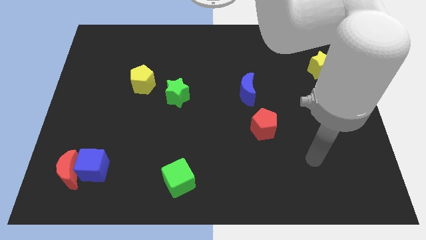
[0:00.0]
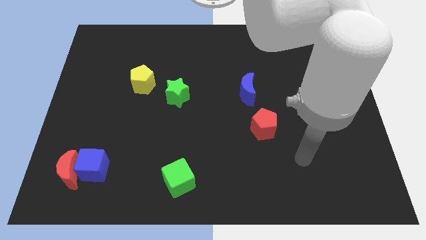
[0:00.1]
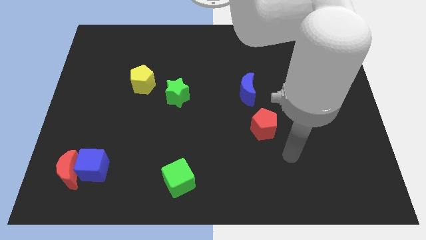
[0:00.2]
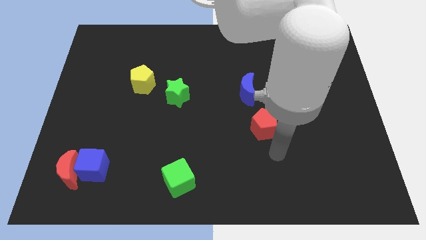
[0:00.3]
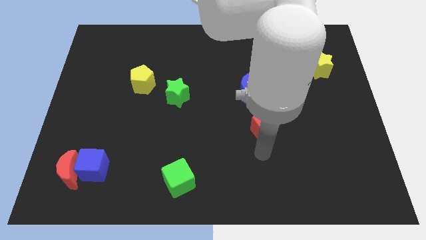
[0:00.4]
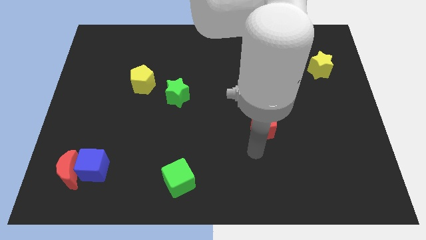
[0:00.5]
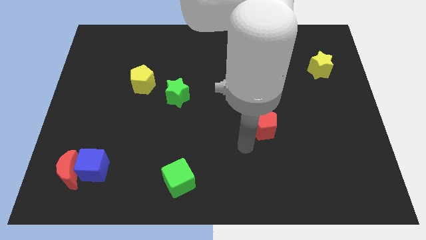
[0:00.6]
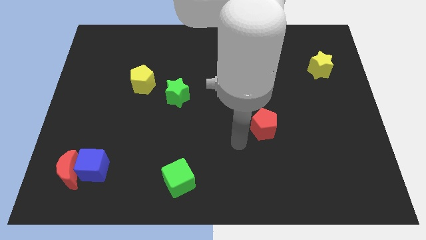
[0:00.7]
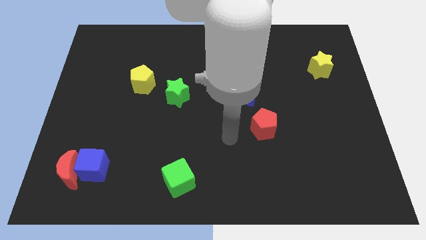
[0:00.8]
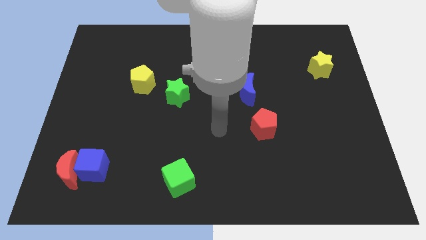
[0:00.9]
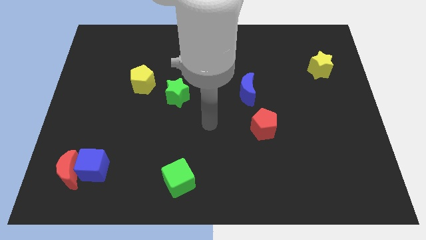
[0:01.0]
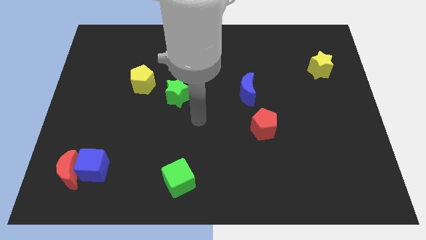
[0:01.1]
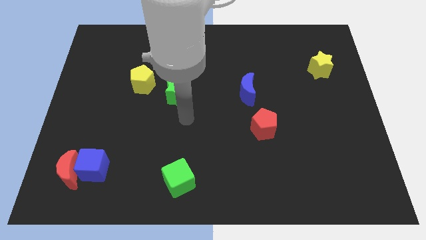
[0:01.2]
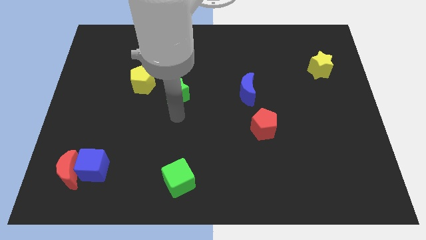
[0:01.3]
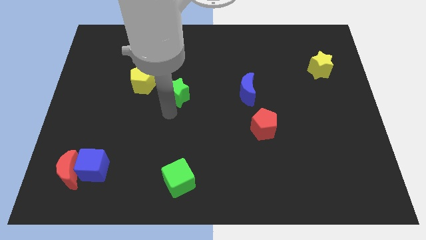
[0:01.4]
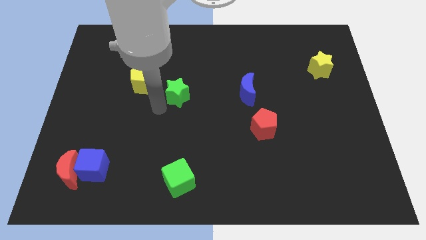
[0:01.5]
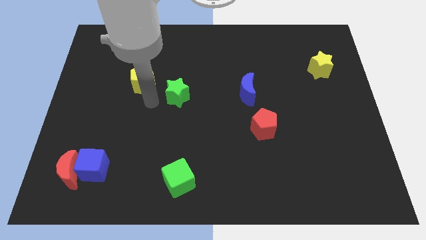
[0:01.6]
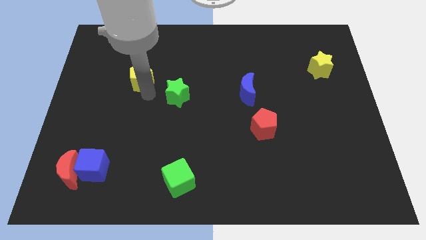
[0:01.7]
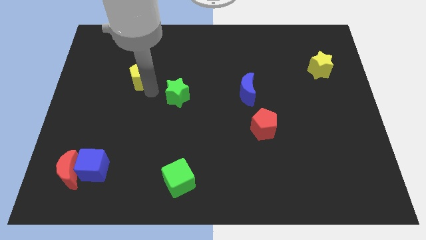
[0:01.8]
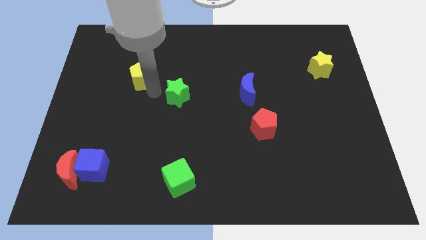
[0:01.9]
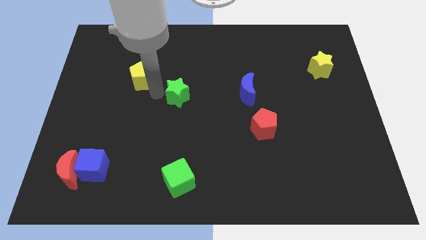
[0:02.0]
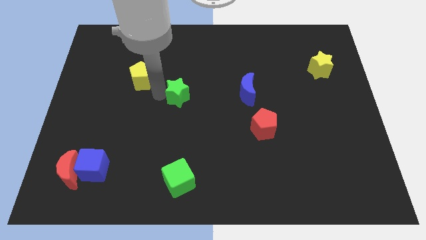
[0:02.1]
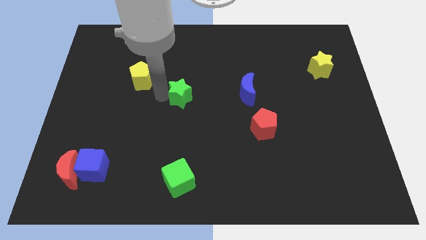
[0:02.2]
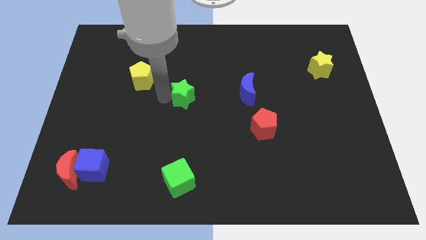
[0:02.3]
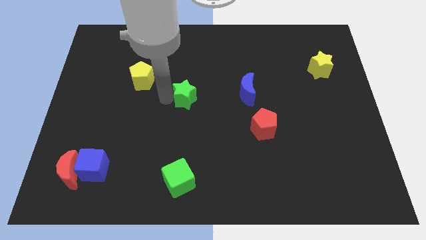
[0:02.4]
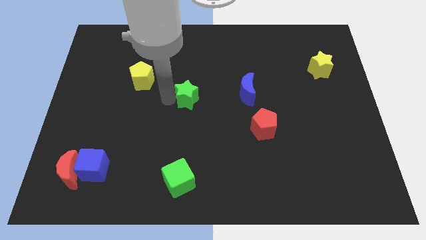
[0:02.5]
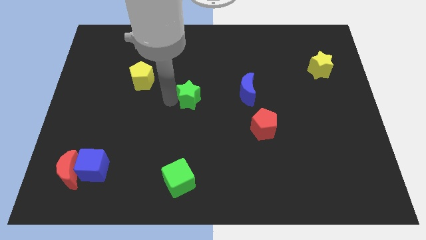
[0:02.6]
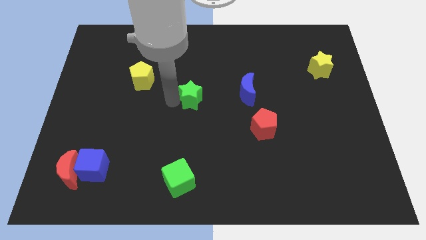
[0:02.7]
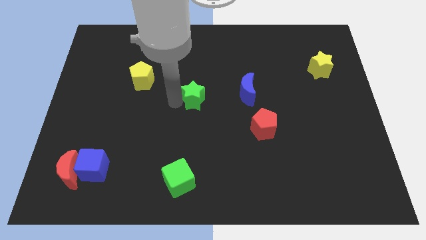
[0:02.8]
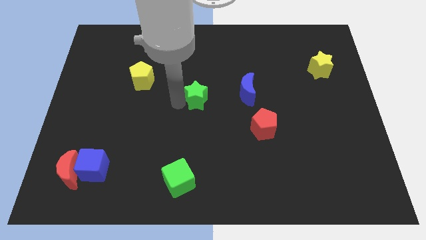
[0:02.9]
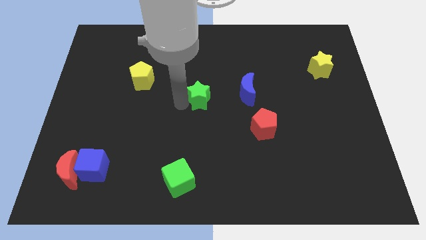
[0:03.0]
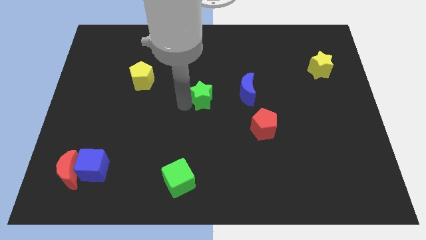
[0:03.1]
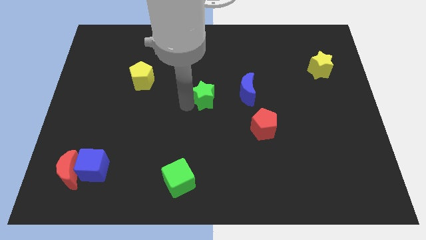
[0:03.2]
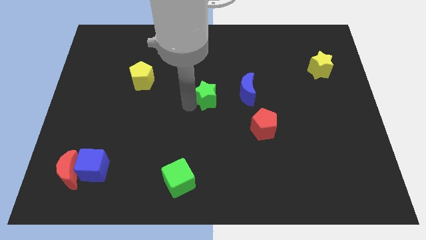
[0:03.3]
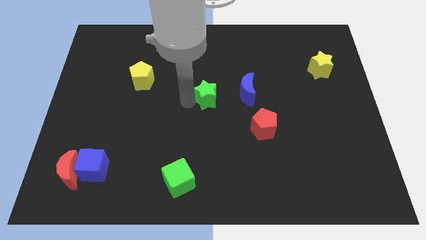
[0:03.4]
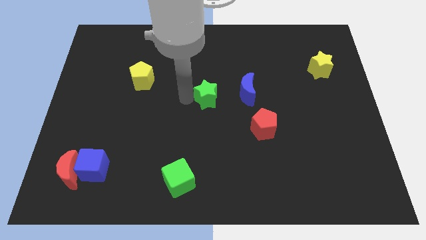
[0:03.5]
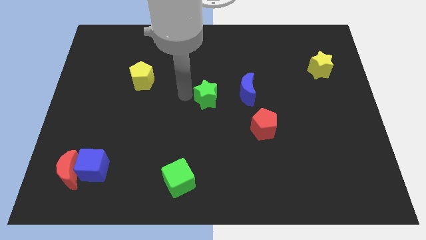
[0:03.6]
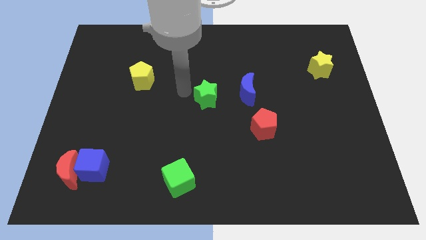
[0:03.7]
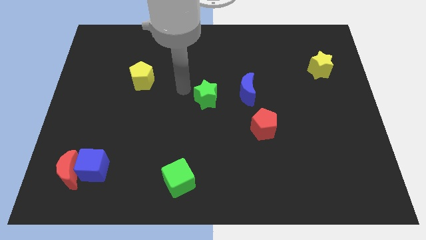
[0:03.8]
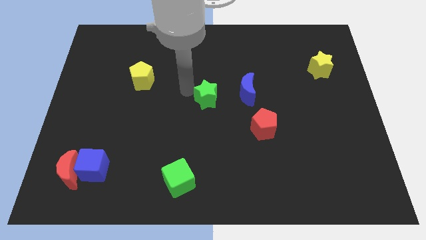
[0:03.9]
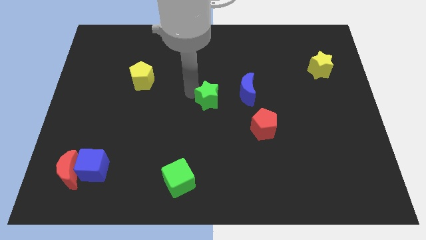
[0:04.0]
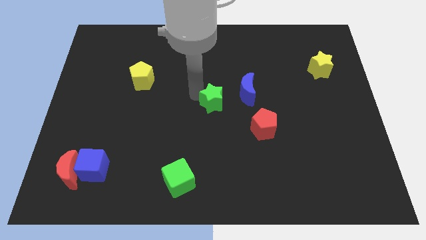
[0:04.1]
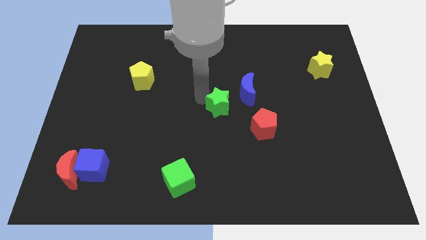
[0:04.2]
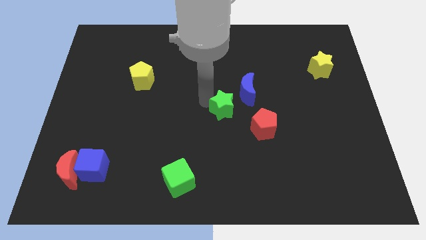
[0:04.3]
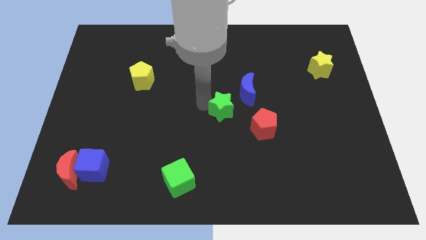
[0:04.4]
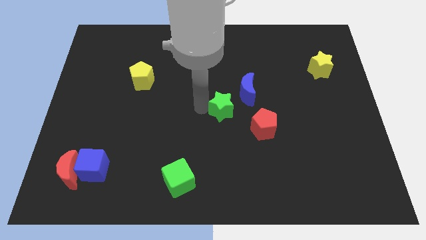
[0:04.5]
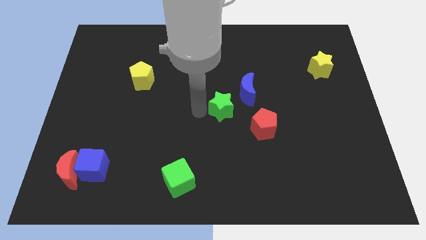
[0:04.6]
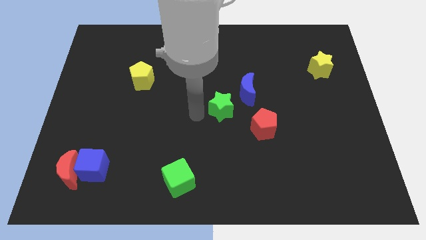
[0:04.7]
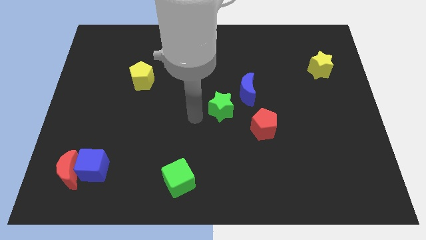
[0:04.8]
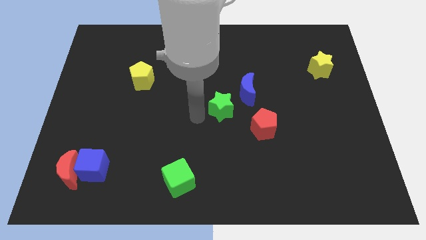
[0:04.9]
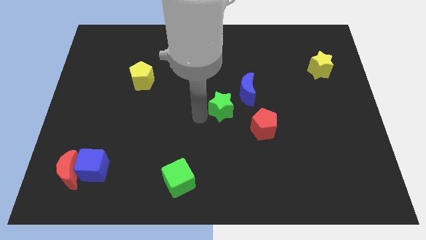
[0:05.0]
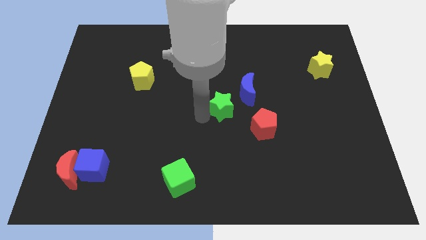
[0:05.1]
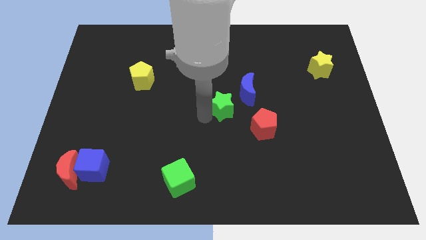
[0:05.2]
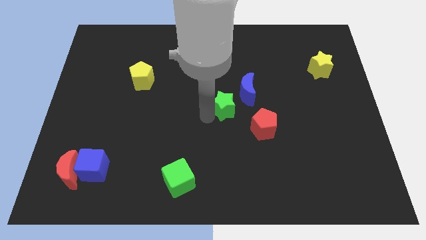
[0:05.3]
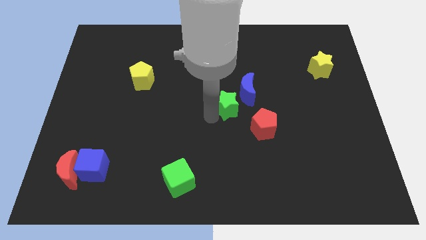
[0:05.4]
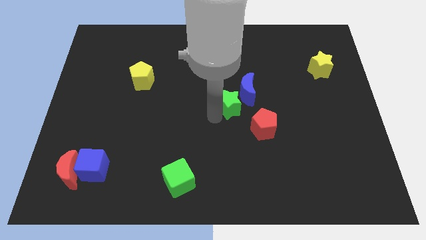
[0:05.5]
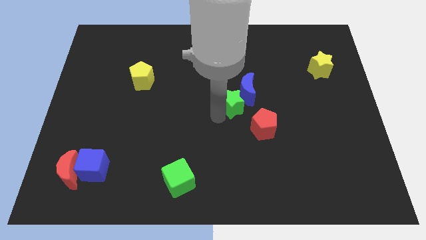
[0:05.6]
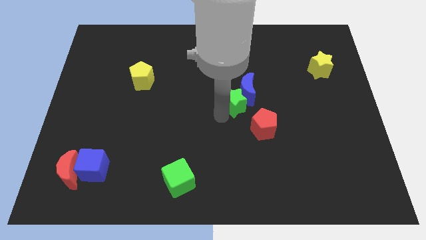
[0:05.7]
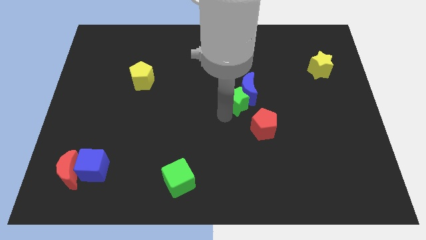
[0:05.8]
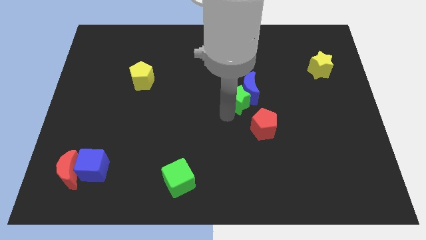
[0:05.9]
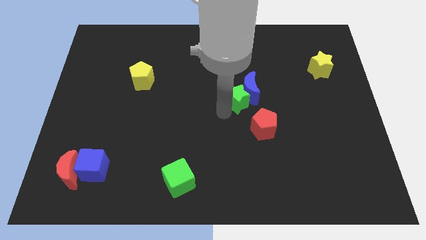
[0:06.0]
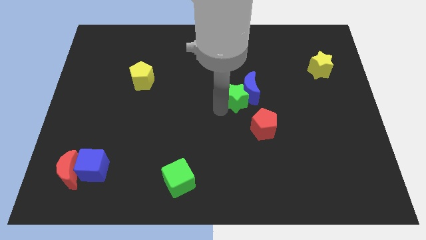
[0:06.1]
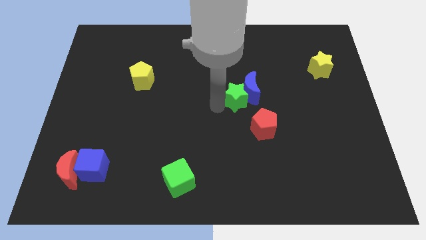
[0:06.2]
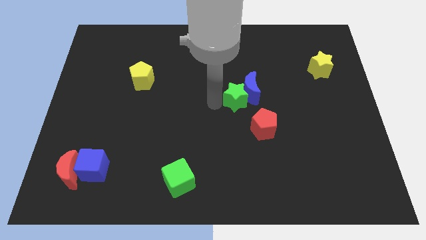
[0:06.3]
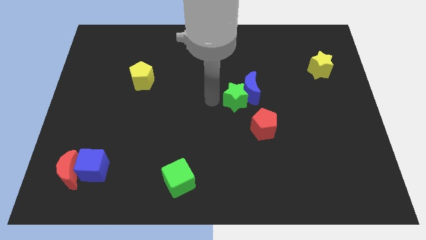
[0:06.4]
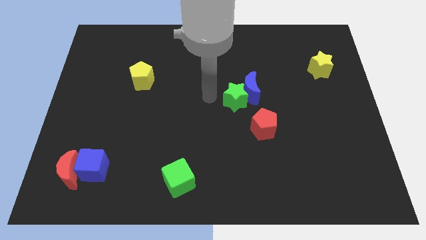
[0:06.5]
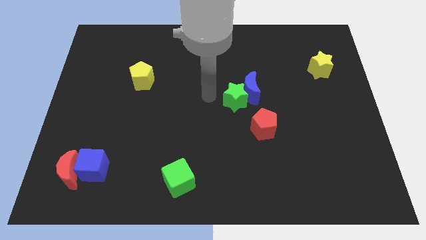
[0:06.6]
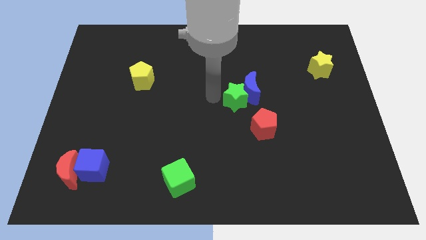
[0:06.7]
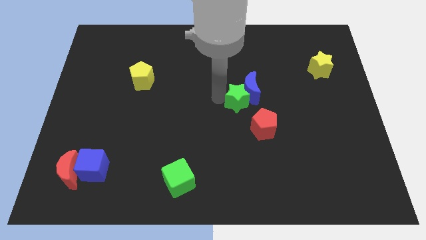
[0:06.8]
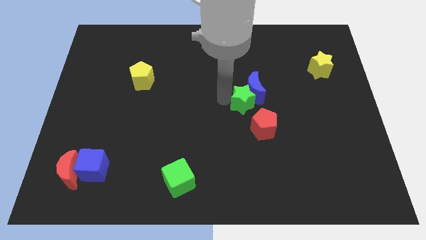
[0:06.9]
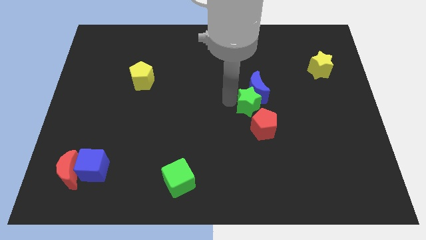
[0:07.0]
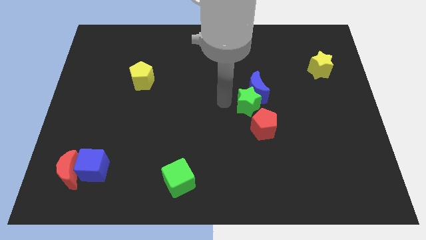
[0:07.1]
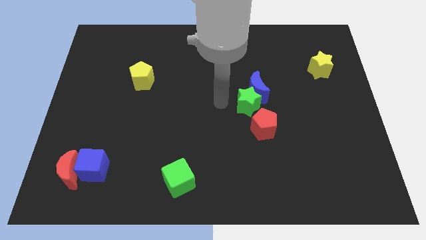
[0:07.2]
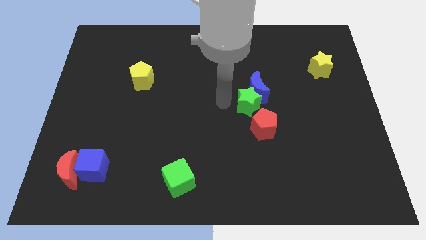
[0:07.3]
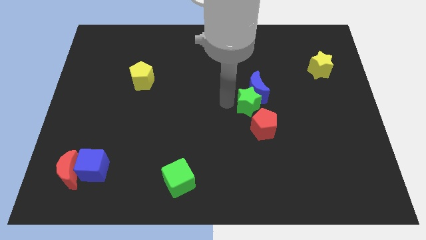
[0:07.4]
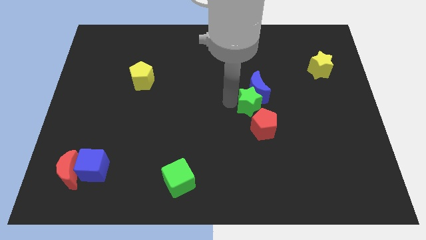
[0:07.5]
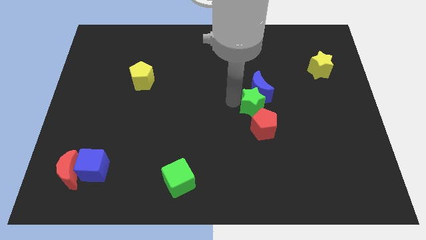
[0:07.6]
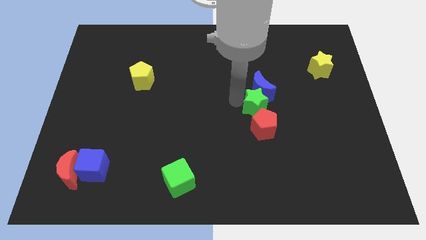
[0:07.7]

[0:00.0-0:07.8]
push the green star to the bottom right of the blue moon
